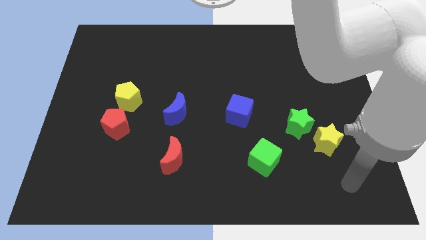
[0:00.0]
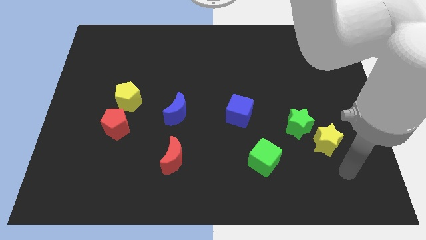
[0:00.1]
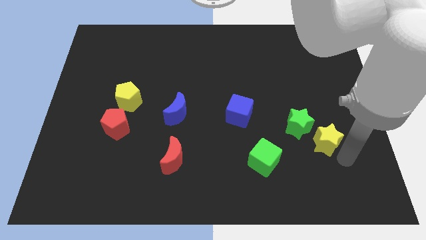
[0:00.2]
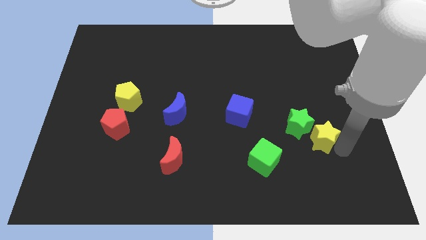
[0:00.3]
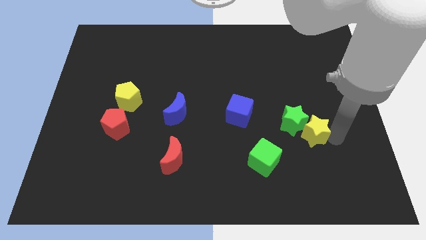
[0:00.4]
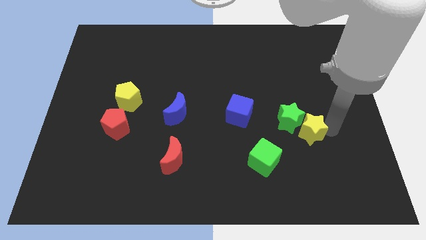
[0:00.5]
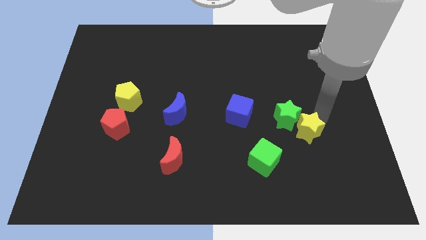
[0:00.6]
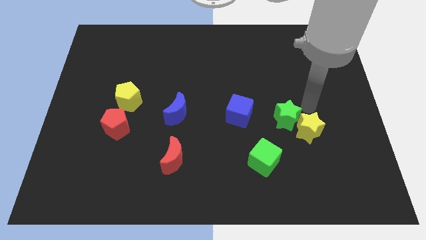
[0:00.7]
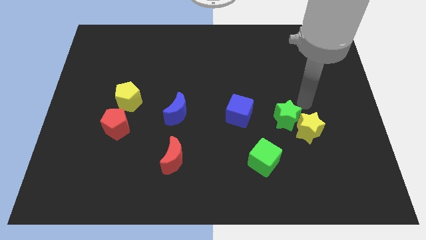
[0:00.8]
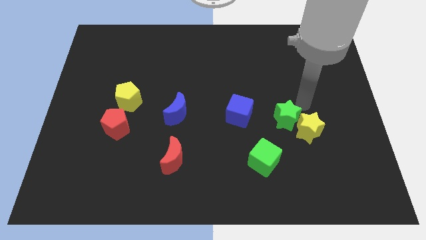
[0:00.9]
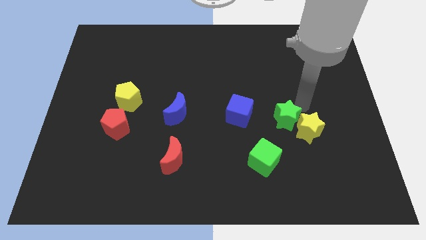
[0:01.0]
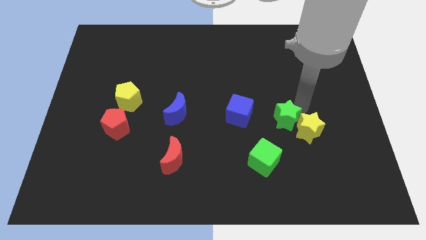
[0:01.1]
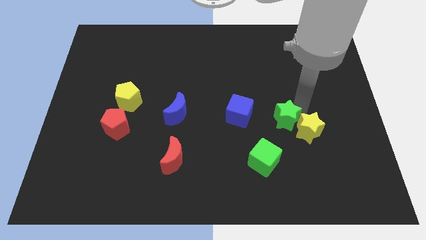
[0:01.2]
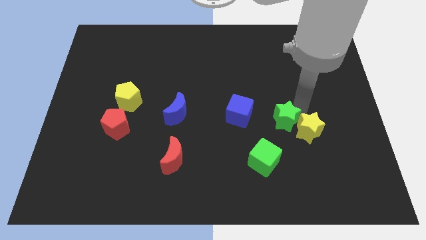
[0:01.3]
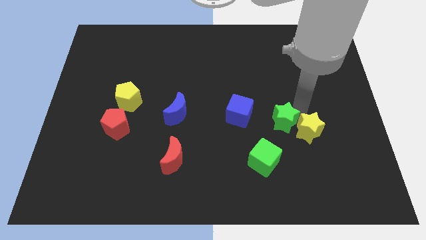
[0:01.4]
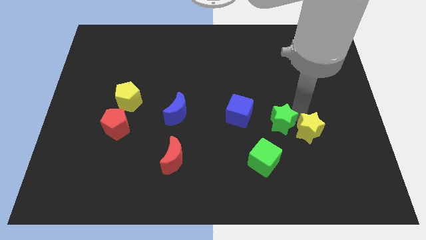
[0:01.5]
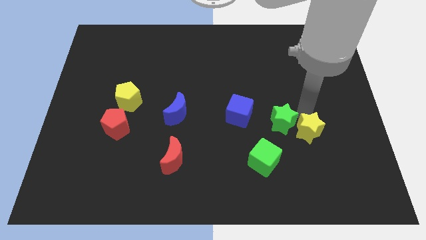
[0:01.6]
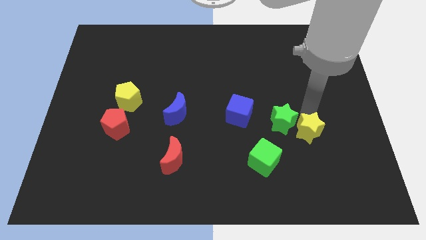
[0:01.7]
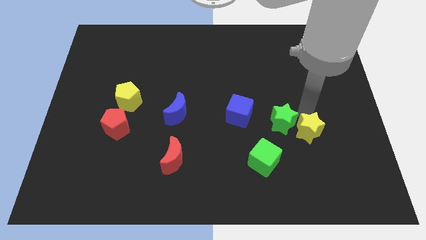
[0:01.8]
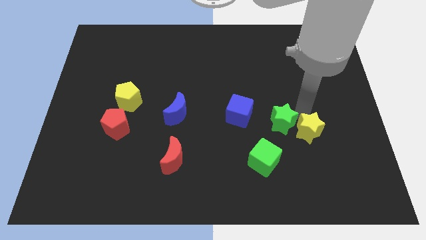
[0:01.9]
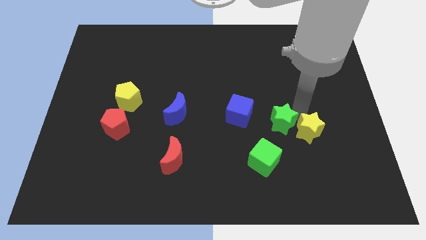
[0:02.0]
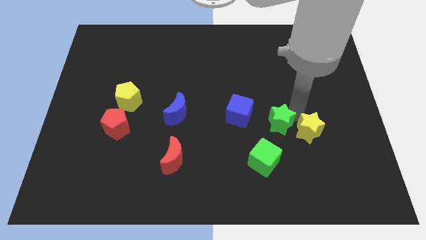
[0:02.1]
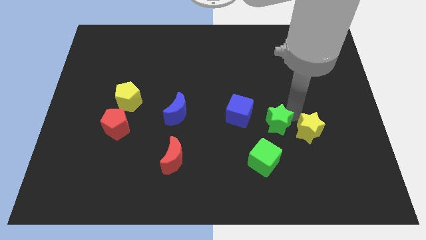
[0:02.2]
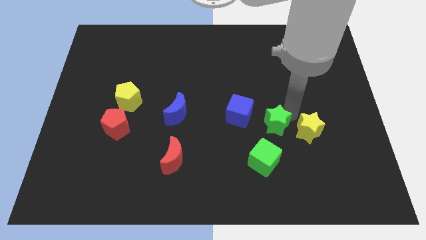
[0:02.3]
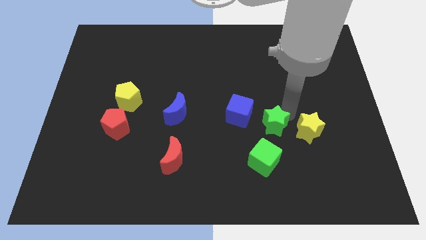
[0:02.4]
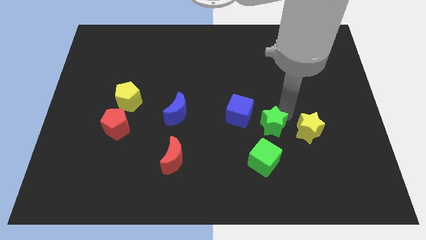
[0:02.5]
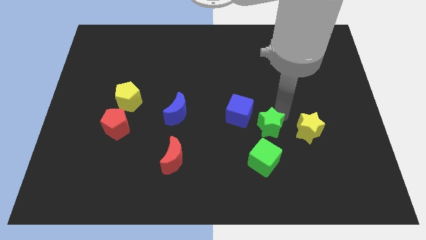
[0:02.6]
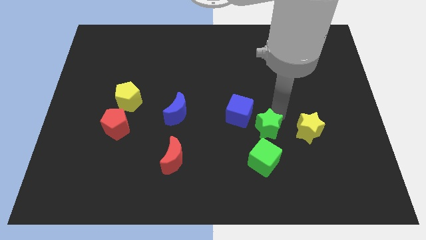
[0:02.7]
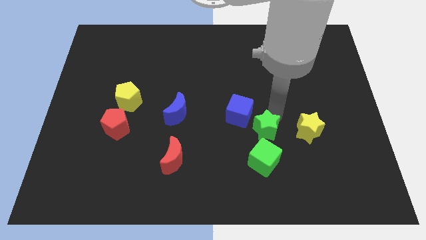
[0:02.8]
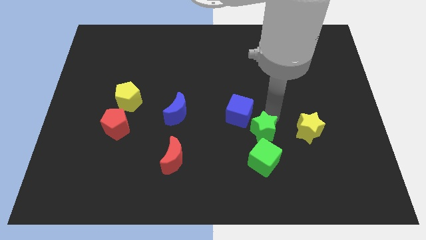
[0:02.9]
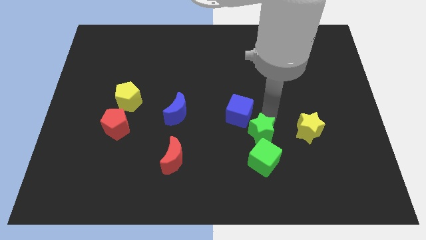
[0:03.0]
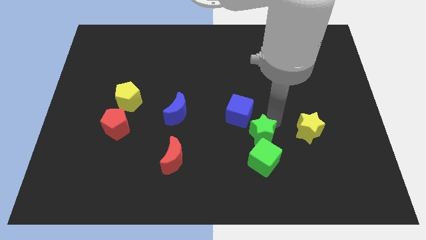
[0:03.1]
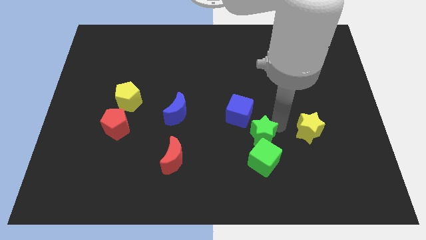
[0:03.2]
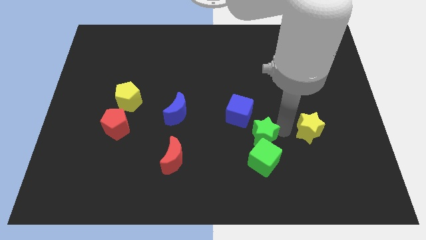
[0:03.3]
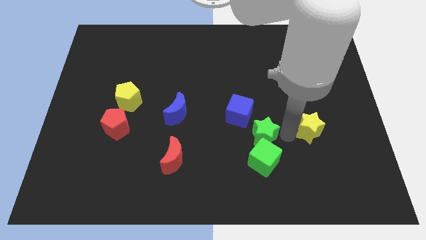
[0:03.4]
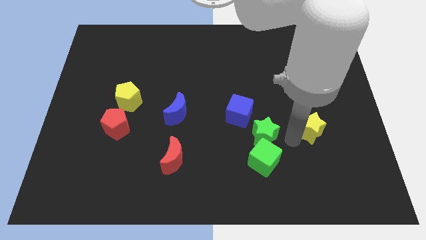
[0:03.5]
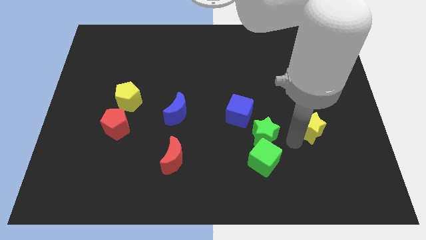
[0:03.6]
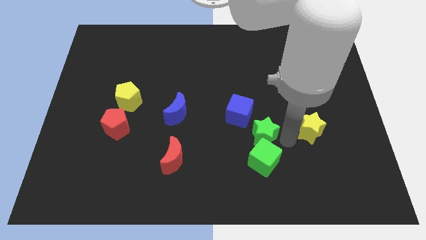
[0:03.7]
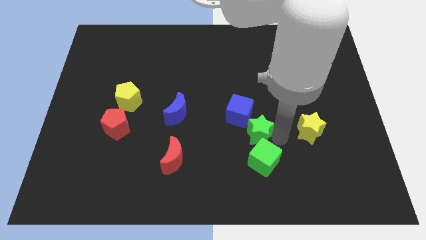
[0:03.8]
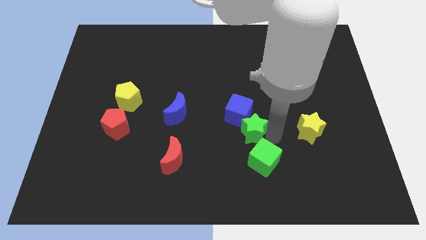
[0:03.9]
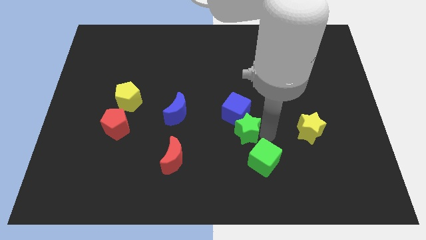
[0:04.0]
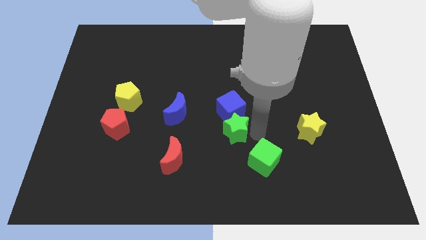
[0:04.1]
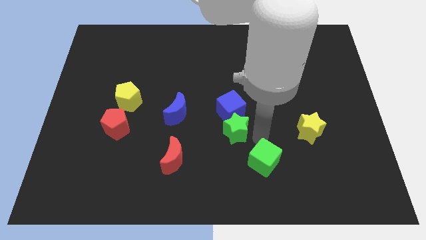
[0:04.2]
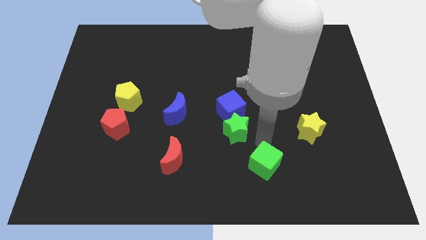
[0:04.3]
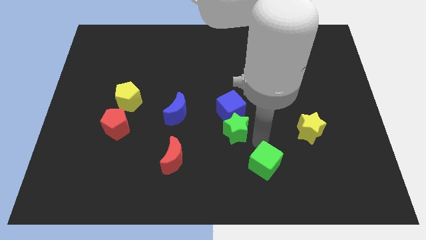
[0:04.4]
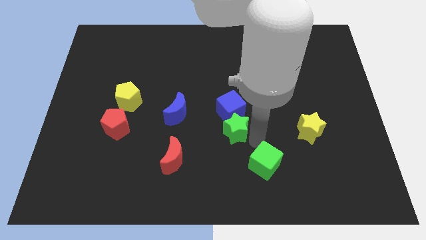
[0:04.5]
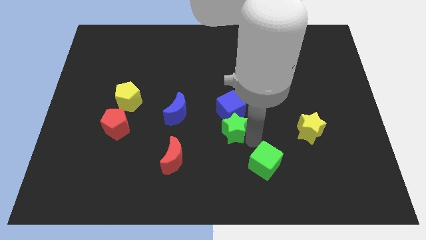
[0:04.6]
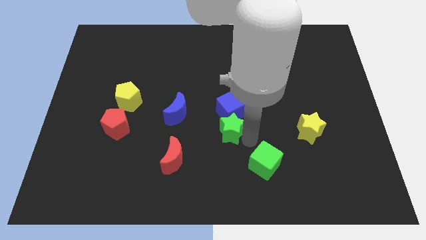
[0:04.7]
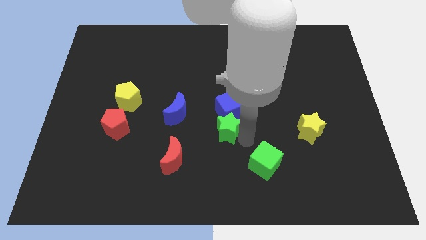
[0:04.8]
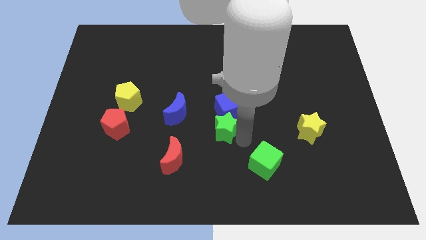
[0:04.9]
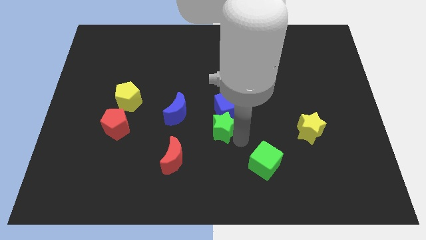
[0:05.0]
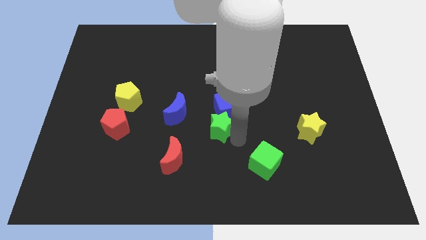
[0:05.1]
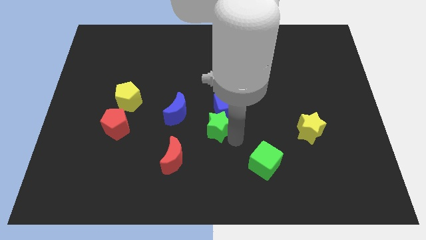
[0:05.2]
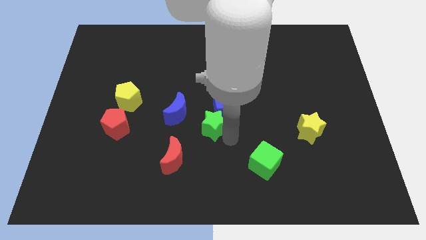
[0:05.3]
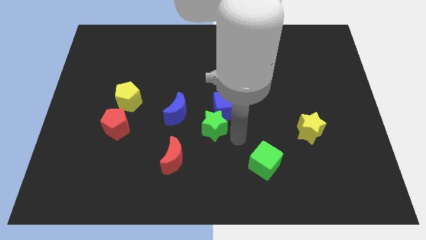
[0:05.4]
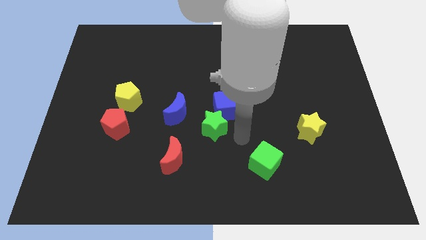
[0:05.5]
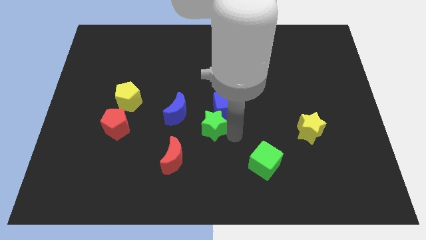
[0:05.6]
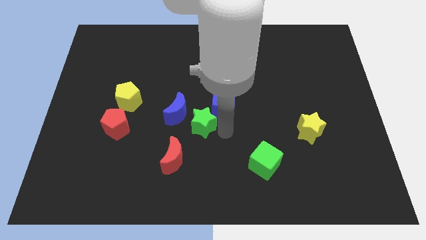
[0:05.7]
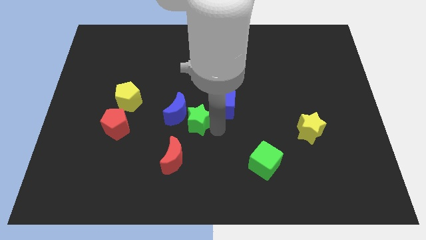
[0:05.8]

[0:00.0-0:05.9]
push the green star to the blue moon
